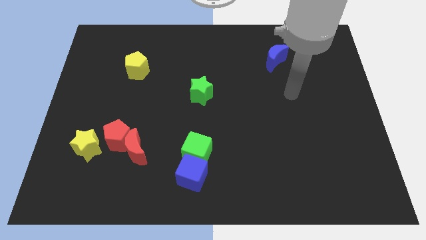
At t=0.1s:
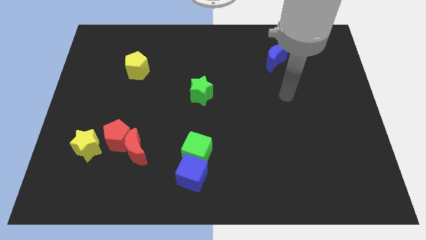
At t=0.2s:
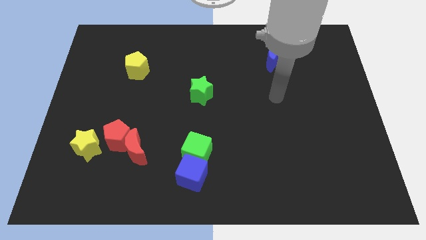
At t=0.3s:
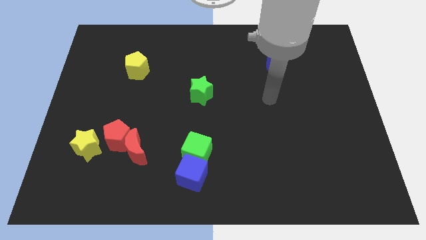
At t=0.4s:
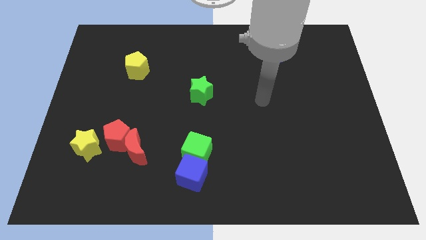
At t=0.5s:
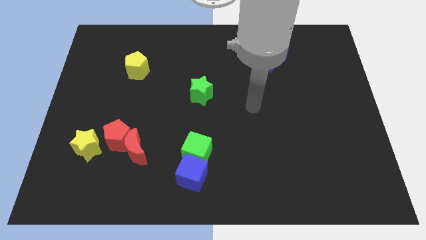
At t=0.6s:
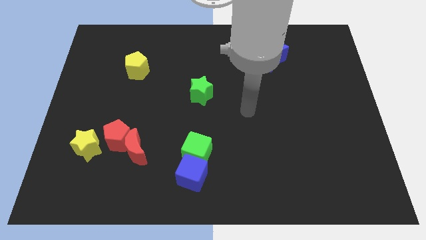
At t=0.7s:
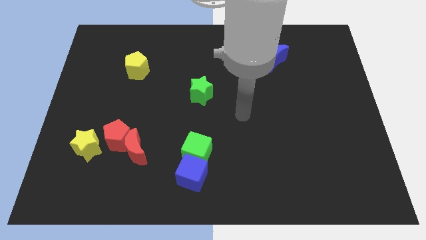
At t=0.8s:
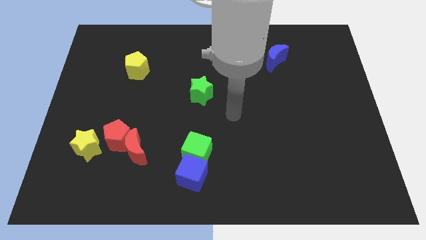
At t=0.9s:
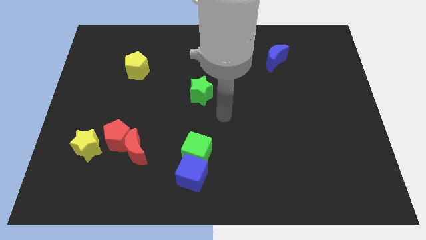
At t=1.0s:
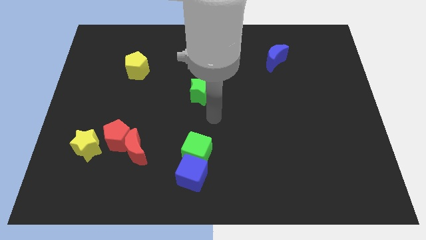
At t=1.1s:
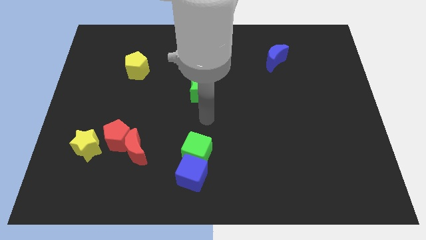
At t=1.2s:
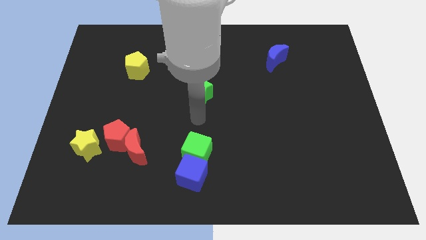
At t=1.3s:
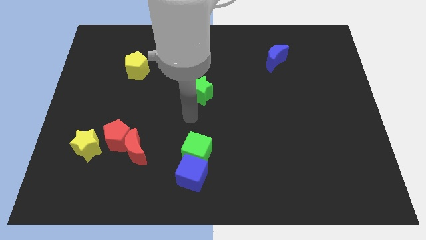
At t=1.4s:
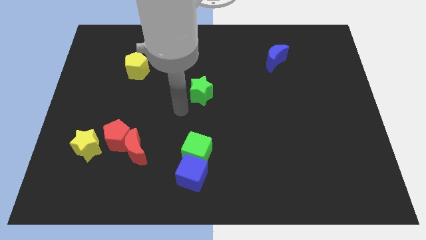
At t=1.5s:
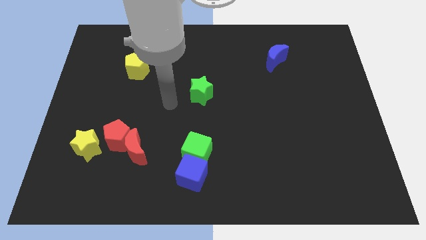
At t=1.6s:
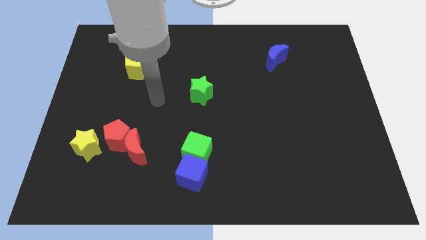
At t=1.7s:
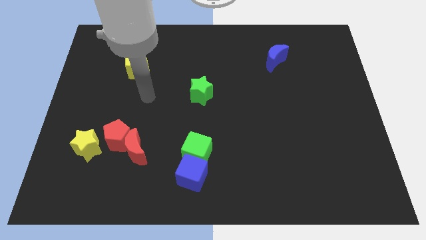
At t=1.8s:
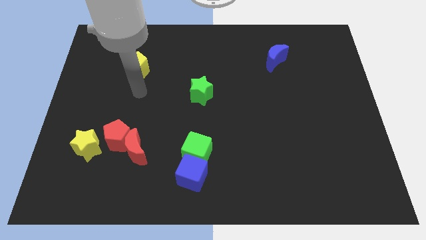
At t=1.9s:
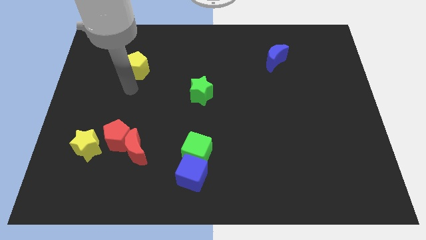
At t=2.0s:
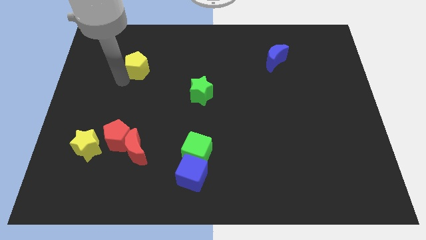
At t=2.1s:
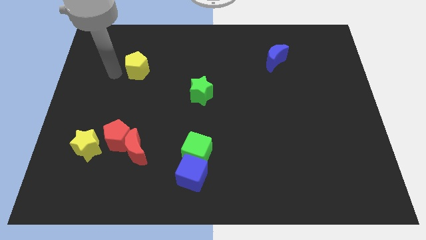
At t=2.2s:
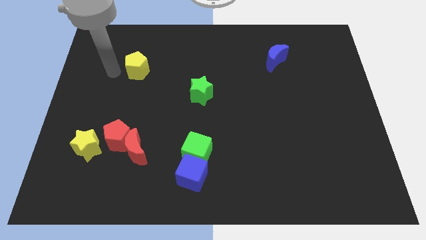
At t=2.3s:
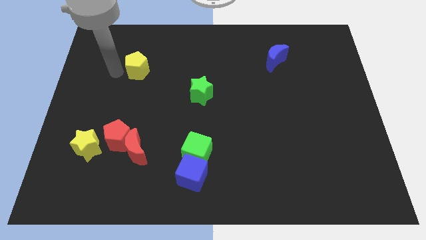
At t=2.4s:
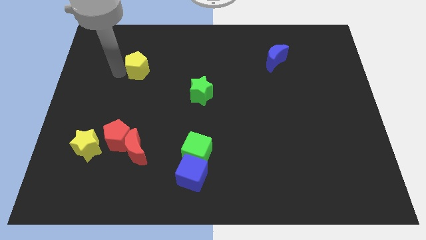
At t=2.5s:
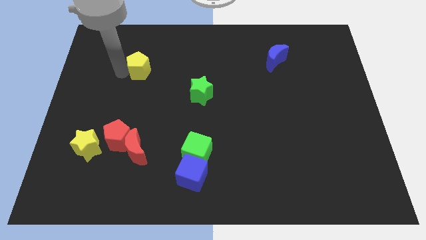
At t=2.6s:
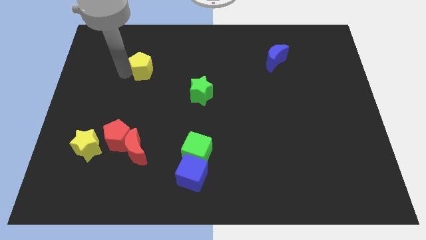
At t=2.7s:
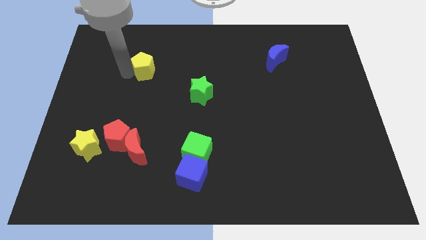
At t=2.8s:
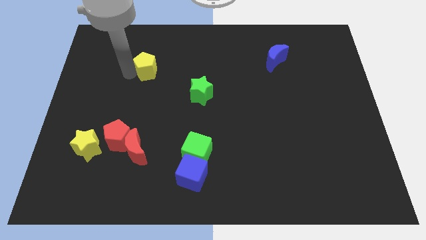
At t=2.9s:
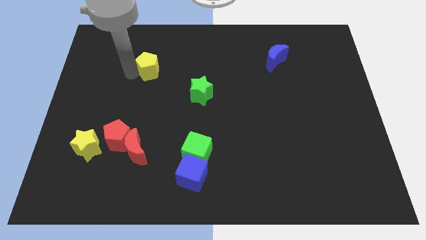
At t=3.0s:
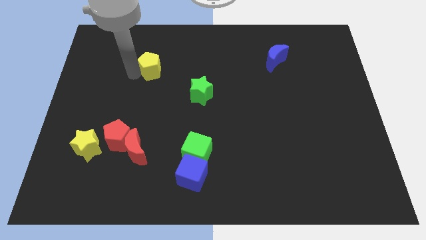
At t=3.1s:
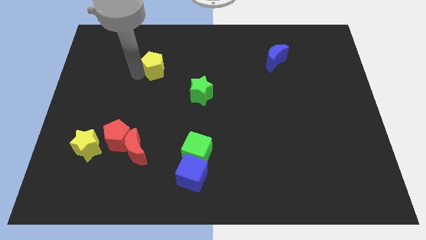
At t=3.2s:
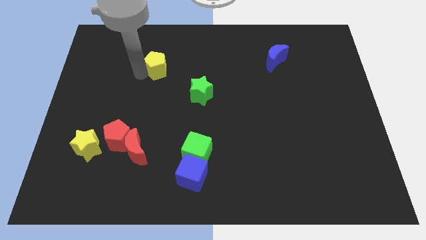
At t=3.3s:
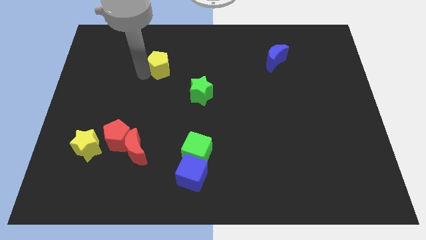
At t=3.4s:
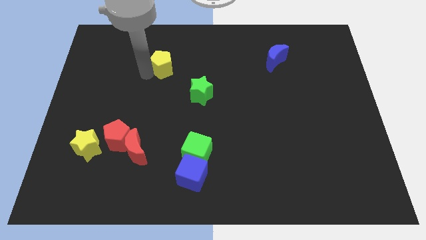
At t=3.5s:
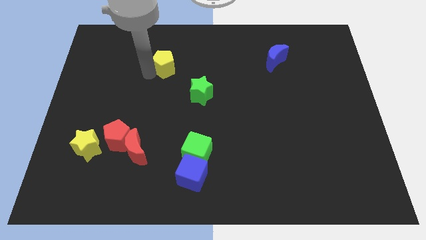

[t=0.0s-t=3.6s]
move the yellow pentagon slightly to the right

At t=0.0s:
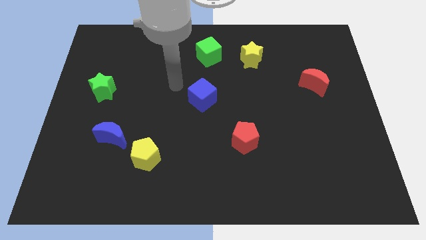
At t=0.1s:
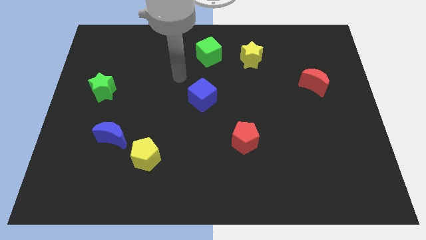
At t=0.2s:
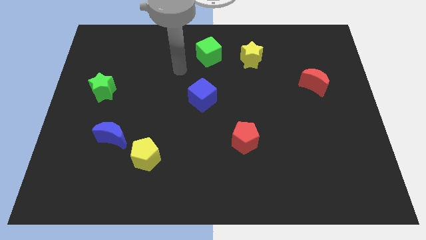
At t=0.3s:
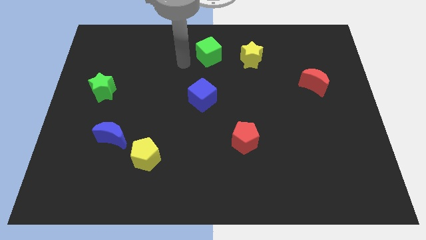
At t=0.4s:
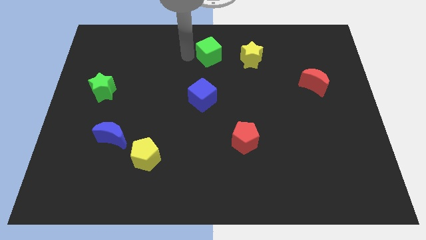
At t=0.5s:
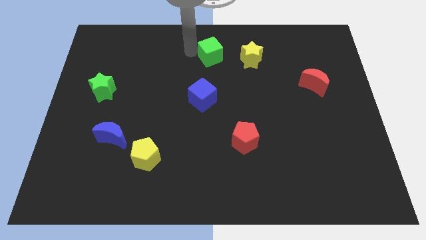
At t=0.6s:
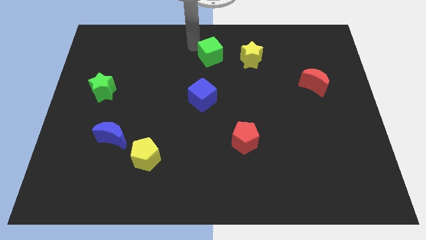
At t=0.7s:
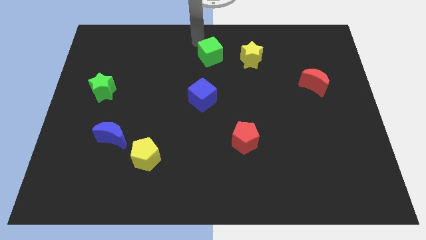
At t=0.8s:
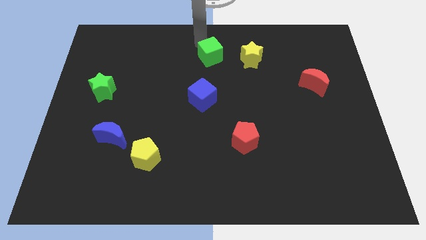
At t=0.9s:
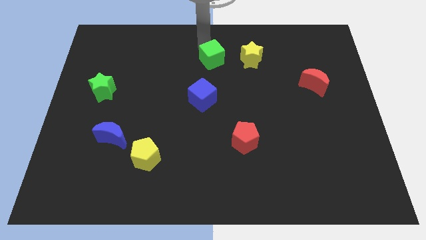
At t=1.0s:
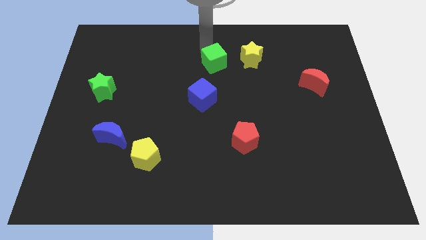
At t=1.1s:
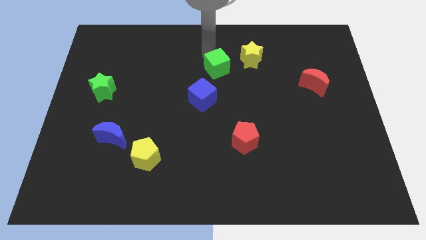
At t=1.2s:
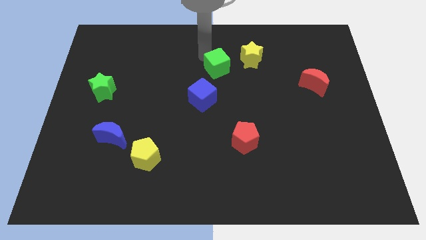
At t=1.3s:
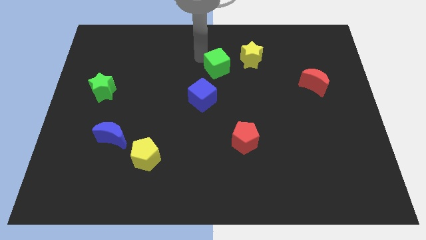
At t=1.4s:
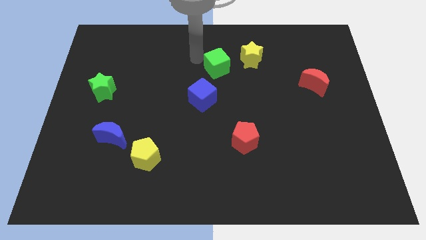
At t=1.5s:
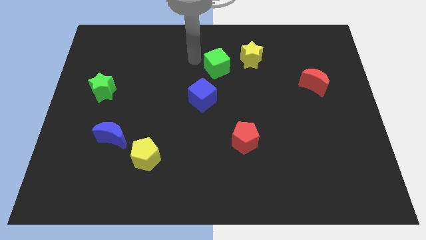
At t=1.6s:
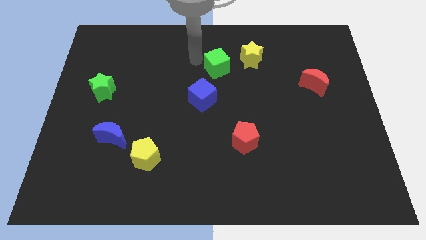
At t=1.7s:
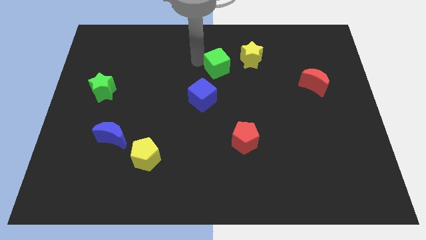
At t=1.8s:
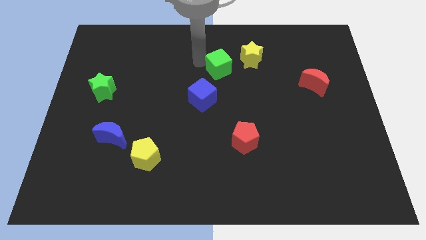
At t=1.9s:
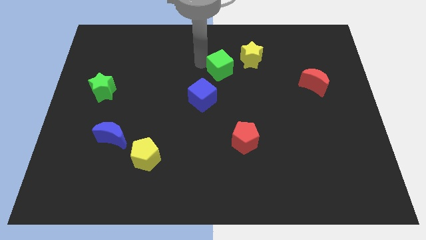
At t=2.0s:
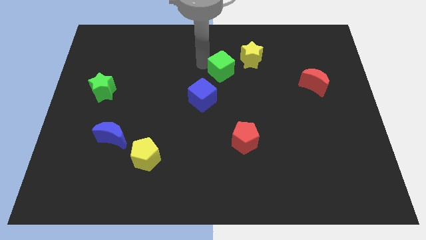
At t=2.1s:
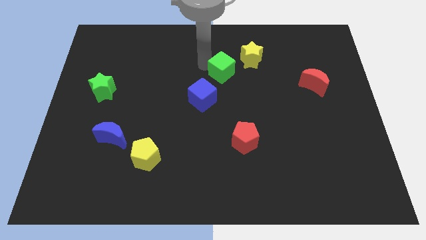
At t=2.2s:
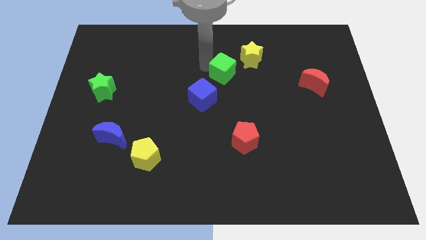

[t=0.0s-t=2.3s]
slide the green cube a bit downwards and right

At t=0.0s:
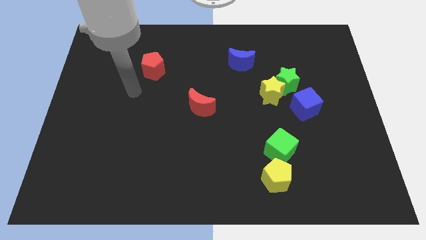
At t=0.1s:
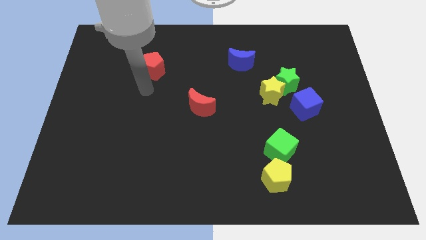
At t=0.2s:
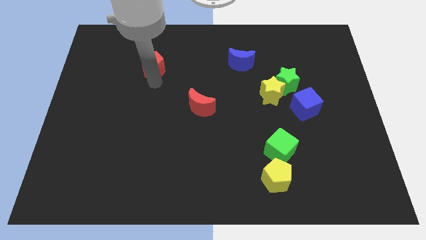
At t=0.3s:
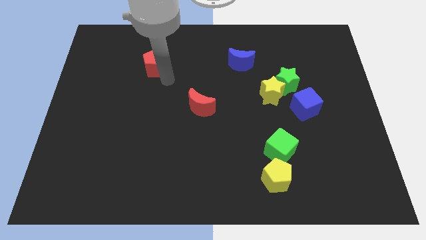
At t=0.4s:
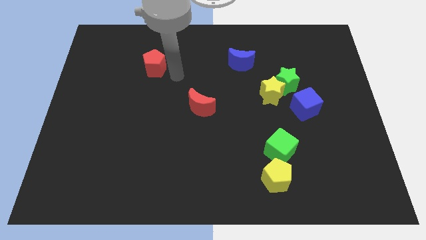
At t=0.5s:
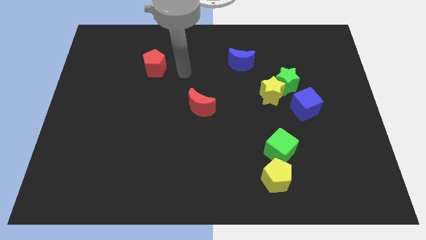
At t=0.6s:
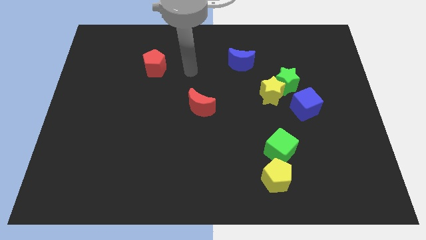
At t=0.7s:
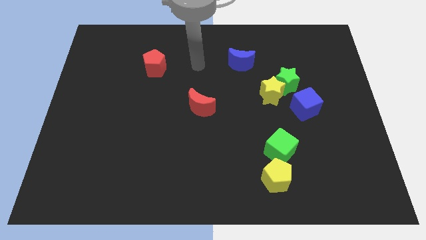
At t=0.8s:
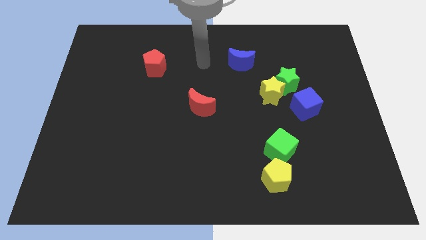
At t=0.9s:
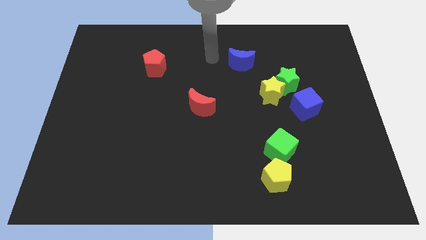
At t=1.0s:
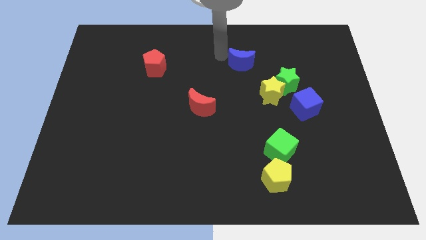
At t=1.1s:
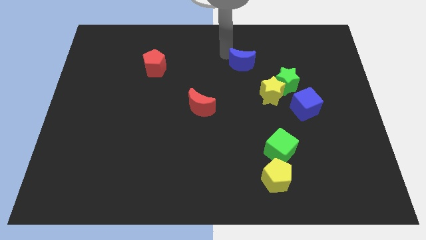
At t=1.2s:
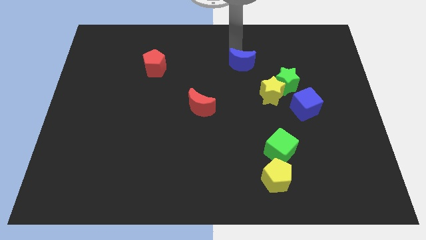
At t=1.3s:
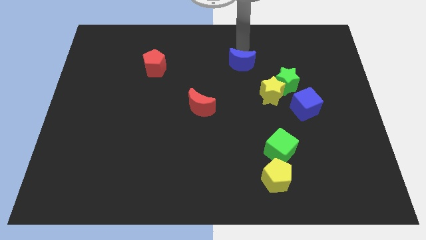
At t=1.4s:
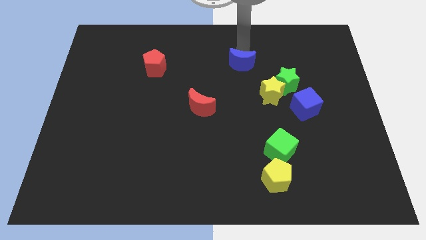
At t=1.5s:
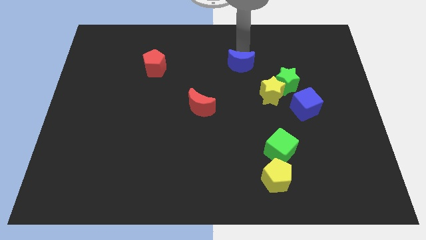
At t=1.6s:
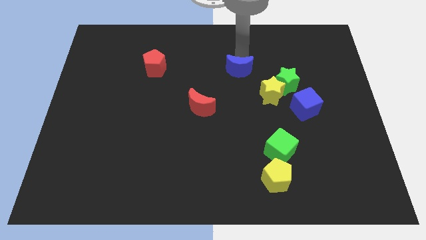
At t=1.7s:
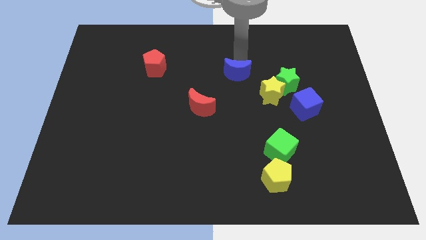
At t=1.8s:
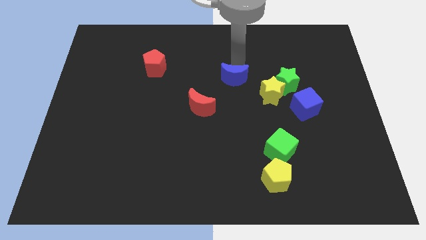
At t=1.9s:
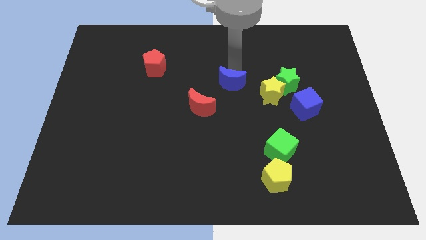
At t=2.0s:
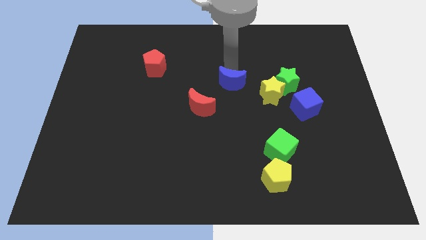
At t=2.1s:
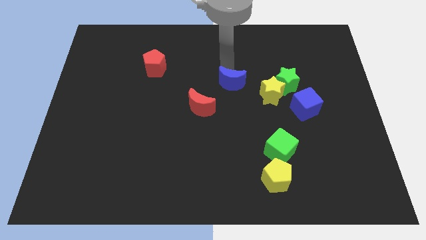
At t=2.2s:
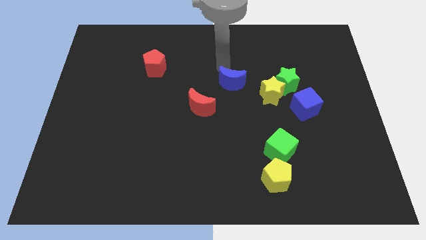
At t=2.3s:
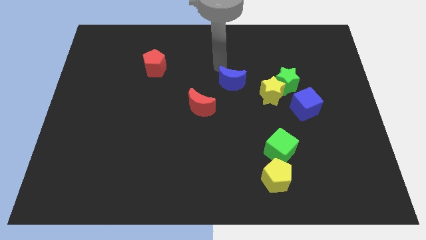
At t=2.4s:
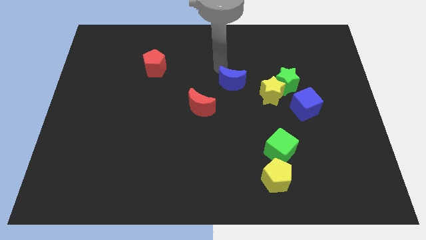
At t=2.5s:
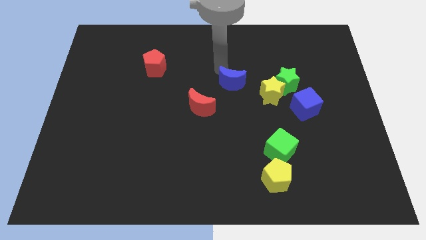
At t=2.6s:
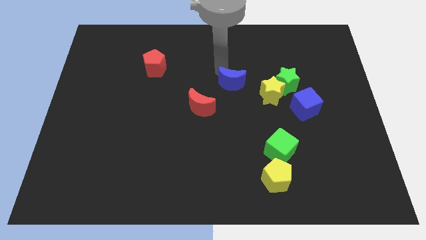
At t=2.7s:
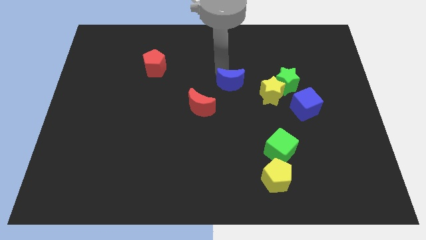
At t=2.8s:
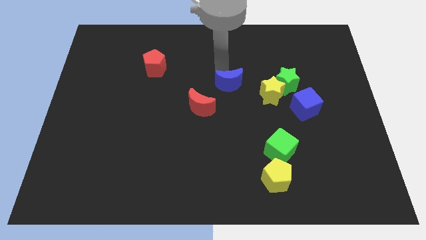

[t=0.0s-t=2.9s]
slide the blue moon a little bit down
